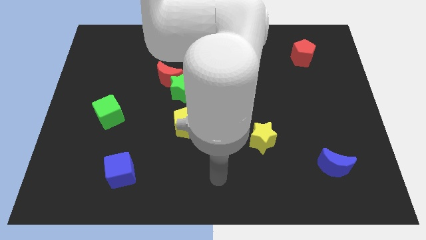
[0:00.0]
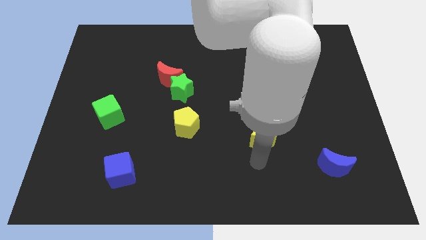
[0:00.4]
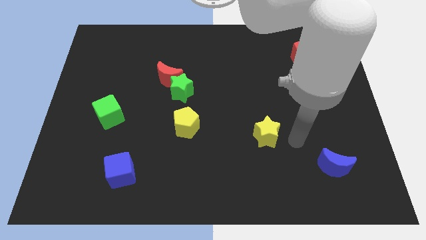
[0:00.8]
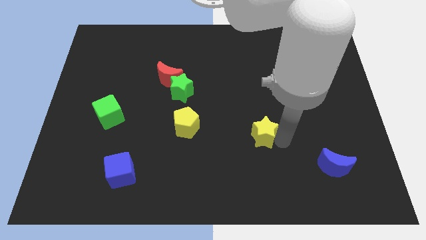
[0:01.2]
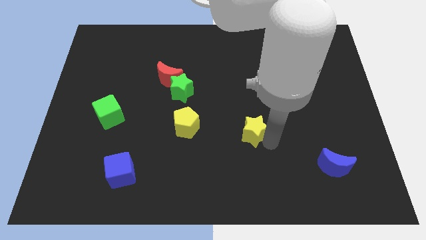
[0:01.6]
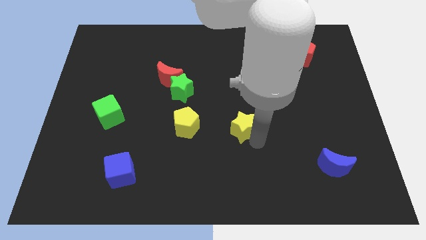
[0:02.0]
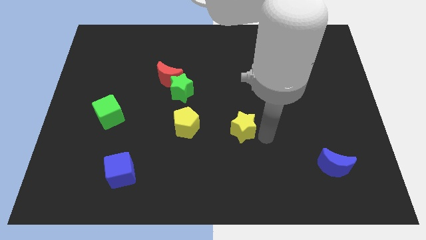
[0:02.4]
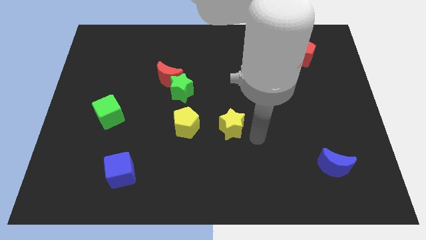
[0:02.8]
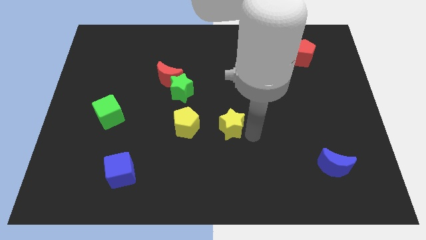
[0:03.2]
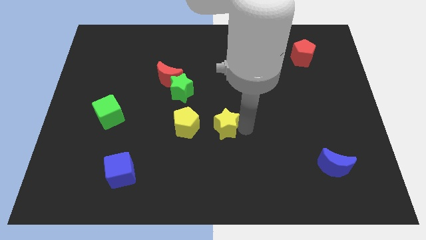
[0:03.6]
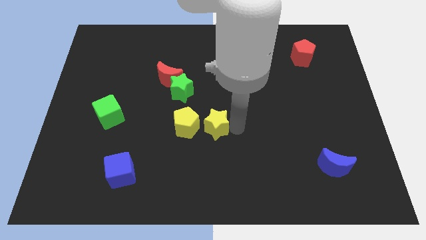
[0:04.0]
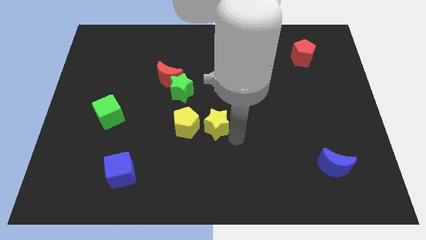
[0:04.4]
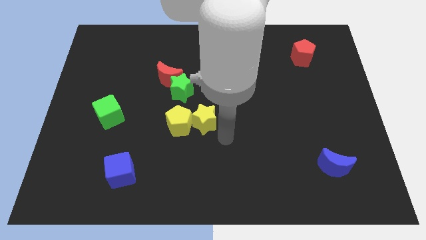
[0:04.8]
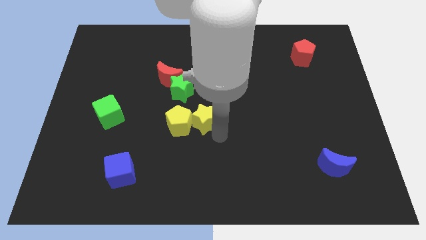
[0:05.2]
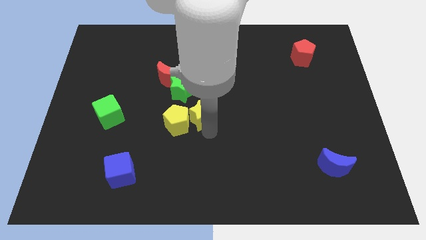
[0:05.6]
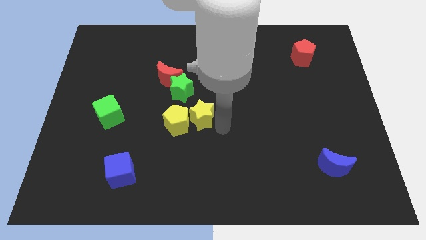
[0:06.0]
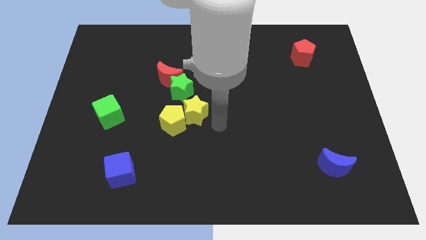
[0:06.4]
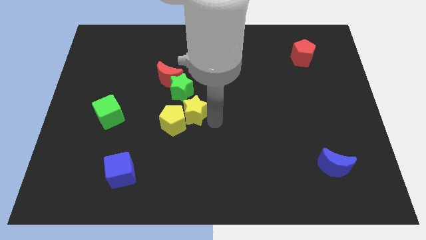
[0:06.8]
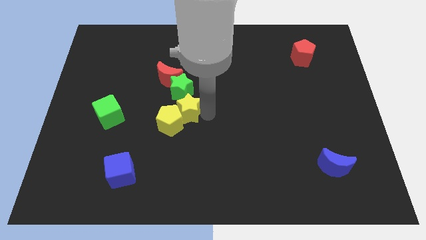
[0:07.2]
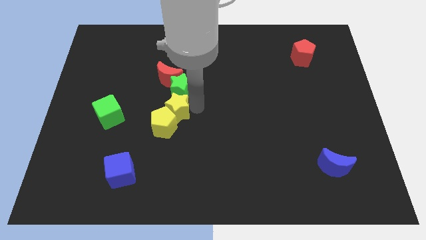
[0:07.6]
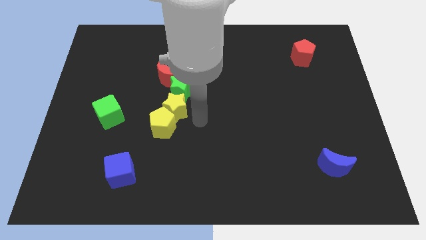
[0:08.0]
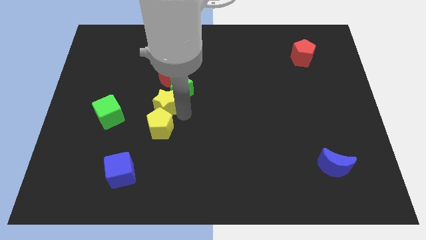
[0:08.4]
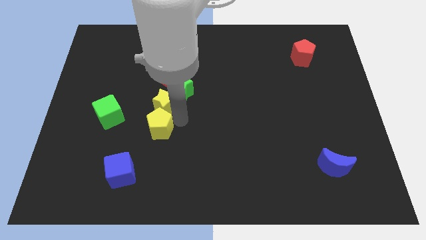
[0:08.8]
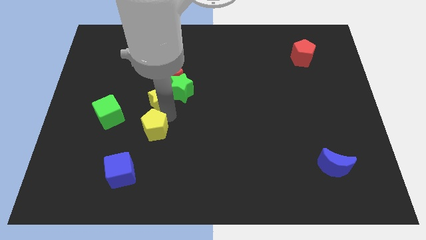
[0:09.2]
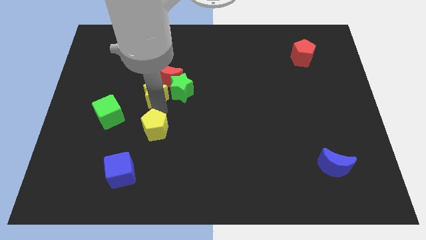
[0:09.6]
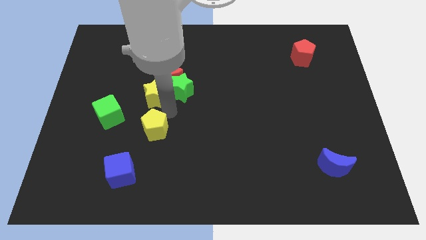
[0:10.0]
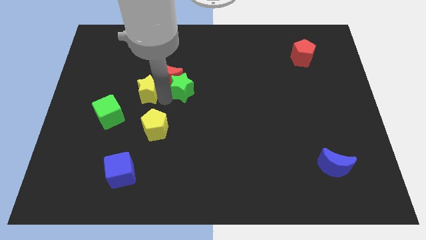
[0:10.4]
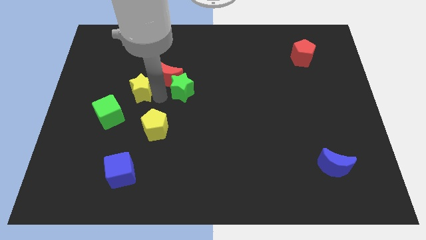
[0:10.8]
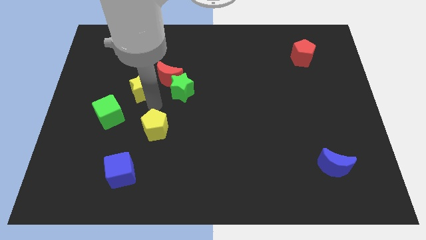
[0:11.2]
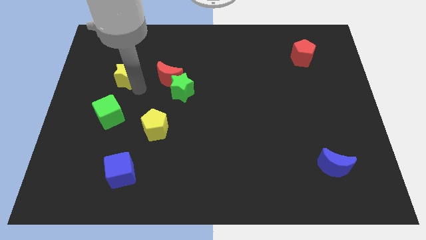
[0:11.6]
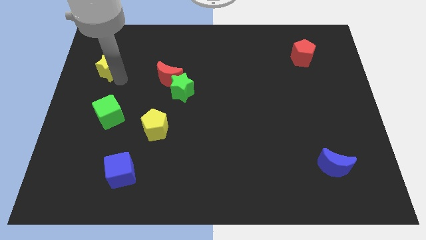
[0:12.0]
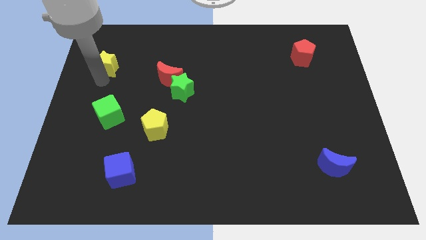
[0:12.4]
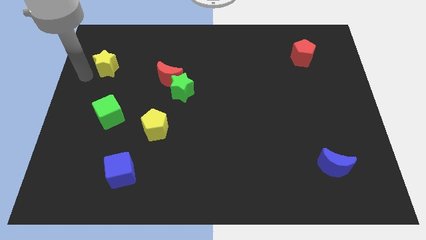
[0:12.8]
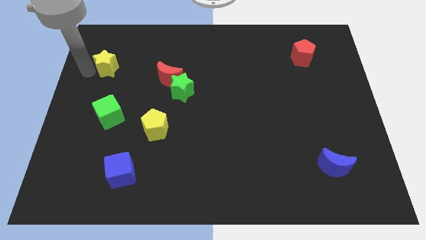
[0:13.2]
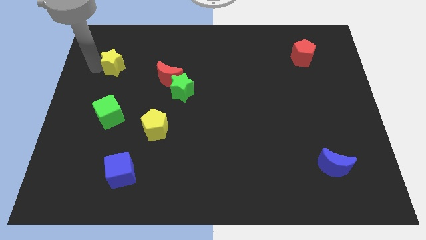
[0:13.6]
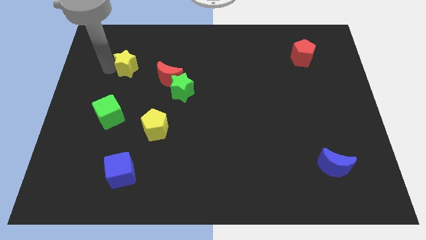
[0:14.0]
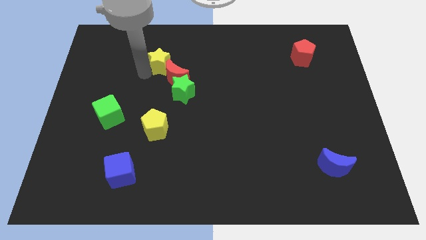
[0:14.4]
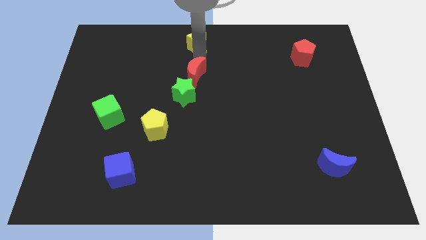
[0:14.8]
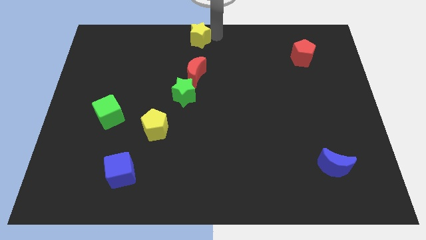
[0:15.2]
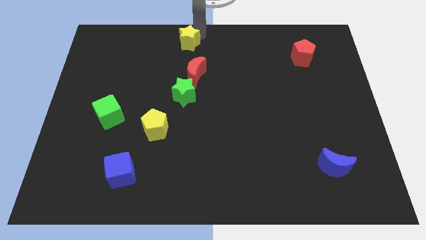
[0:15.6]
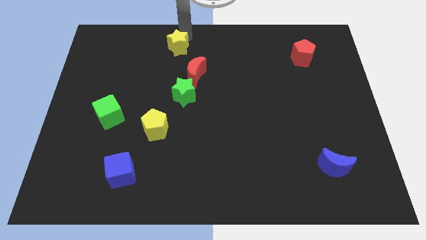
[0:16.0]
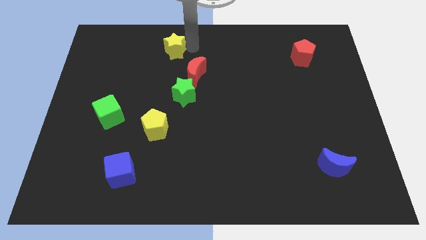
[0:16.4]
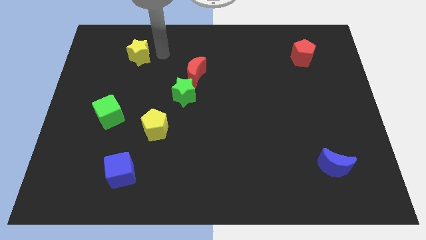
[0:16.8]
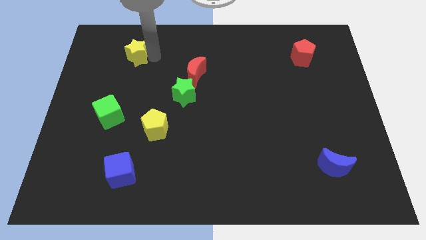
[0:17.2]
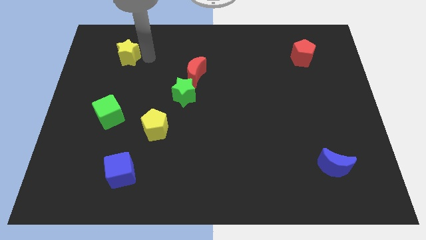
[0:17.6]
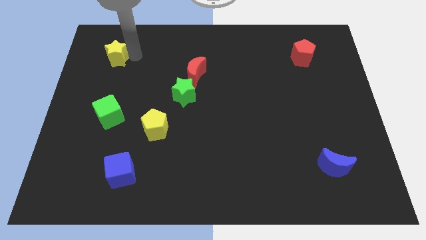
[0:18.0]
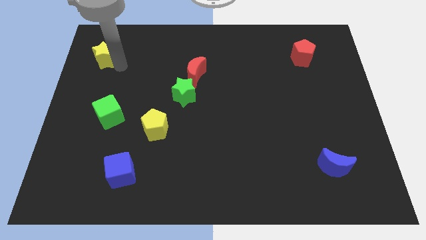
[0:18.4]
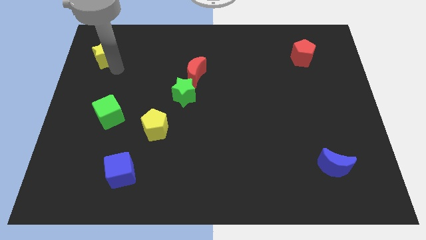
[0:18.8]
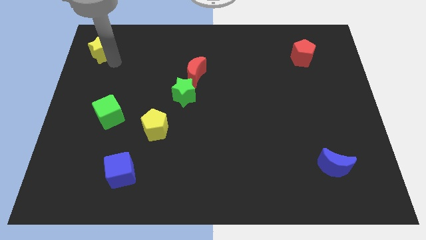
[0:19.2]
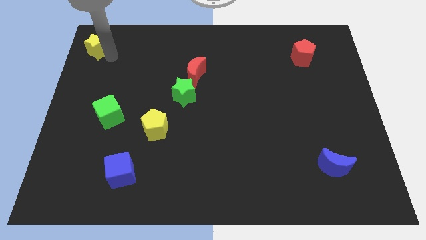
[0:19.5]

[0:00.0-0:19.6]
slide the yellow star to the upper left corner
